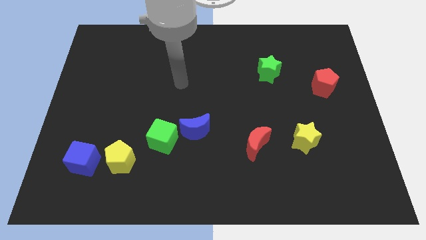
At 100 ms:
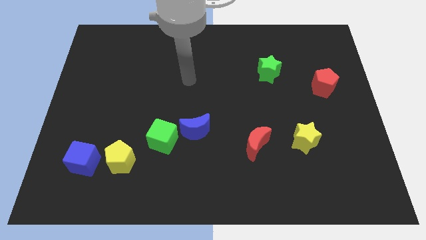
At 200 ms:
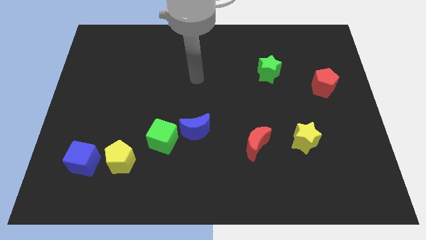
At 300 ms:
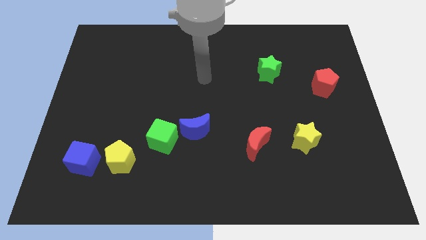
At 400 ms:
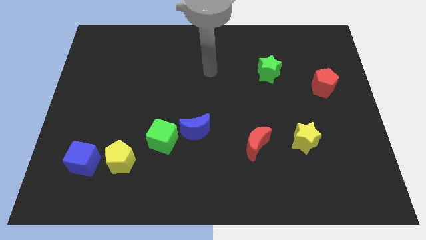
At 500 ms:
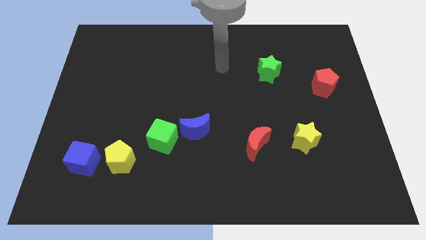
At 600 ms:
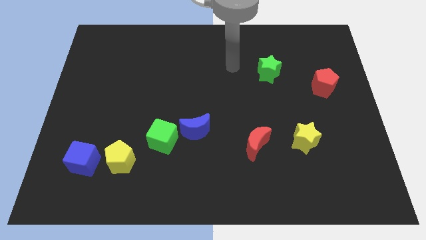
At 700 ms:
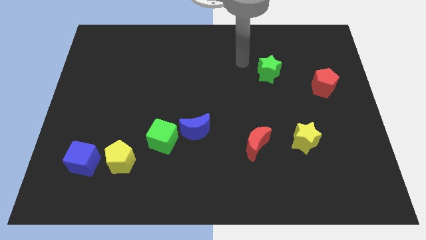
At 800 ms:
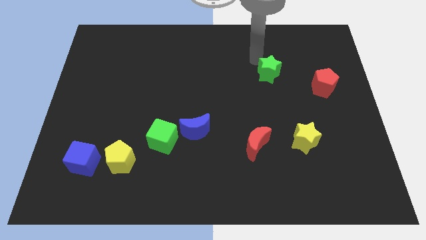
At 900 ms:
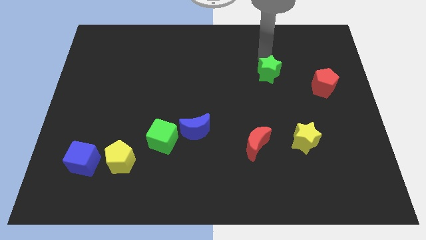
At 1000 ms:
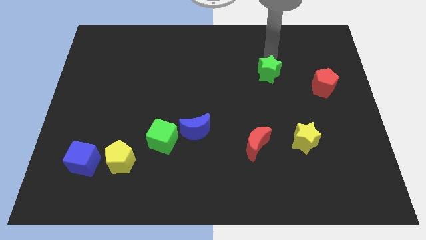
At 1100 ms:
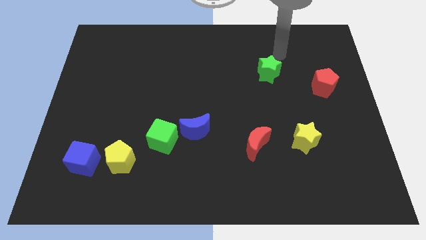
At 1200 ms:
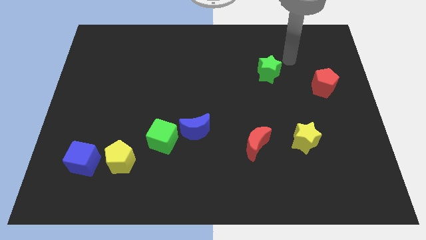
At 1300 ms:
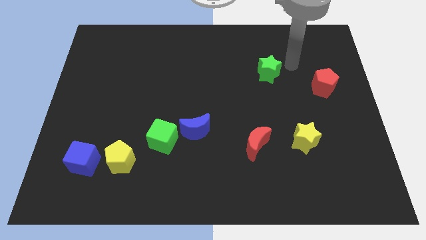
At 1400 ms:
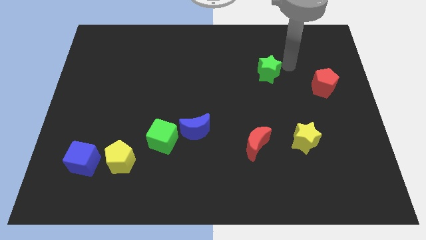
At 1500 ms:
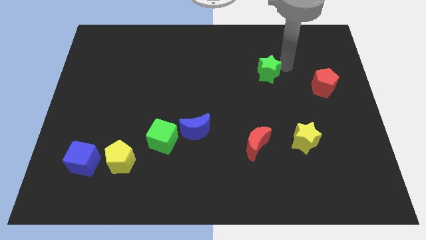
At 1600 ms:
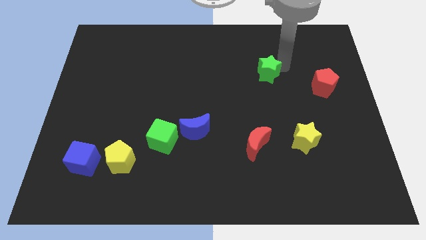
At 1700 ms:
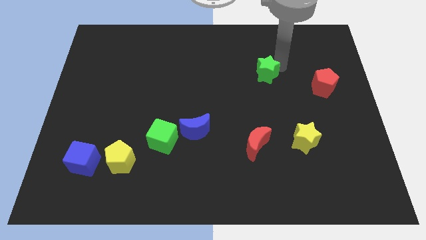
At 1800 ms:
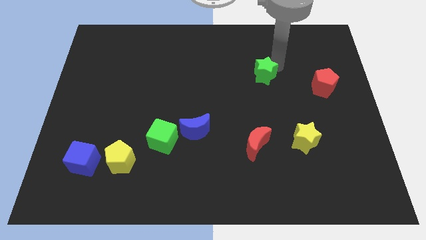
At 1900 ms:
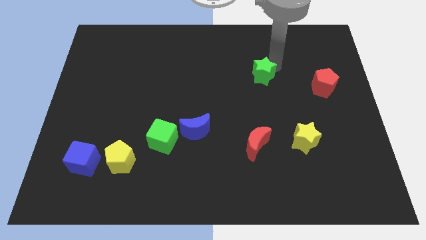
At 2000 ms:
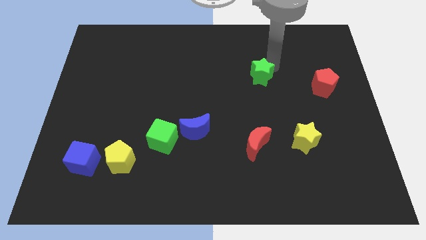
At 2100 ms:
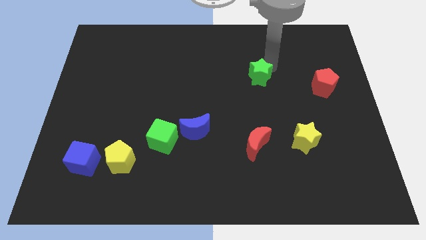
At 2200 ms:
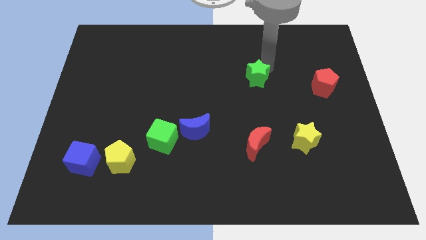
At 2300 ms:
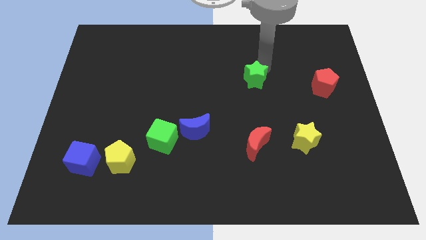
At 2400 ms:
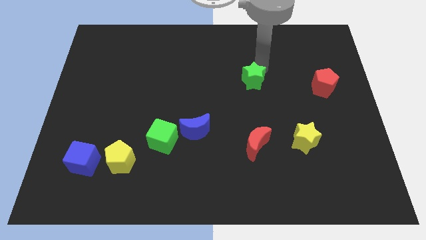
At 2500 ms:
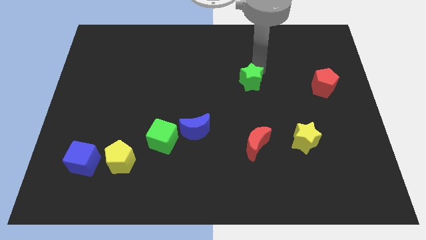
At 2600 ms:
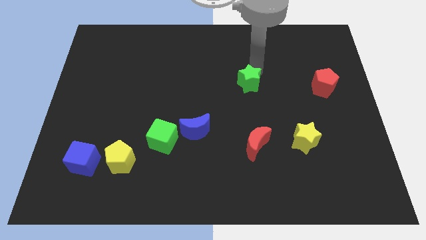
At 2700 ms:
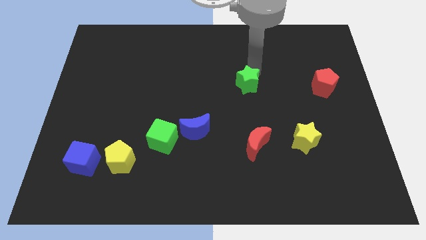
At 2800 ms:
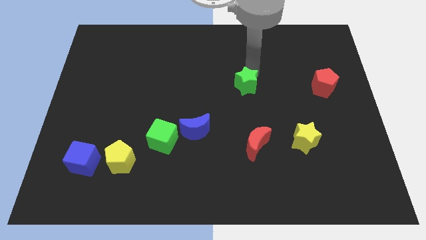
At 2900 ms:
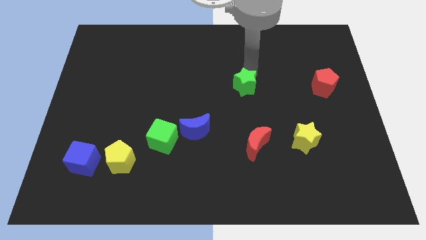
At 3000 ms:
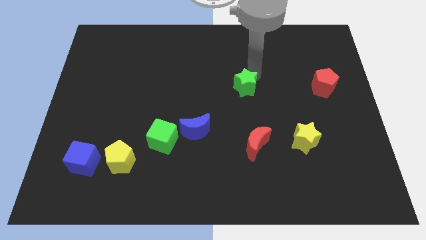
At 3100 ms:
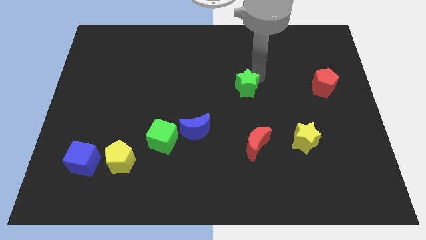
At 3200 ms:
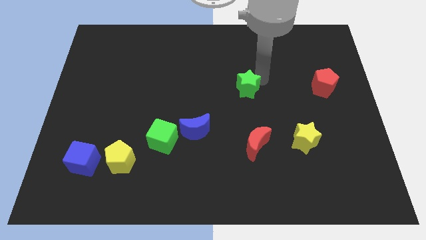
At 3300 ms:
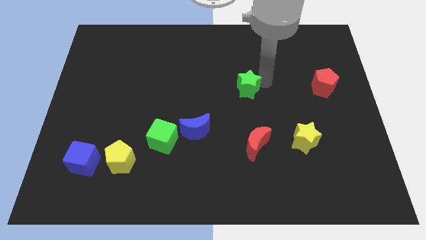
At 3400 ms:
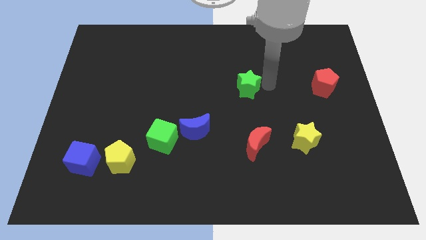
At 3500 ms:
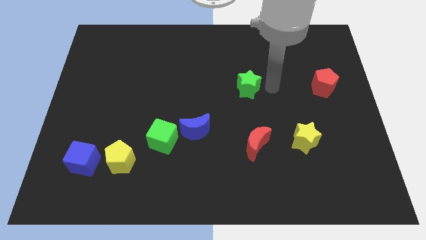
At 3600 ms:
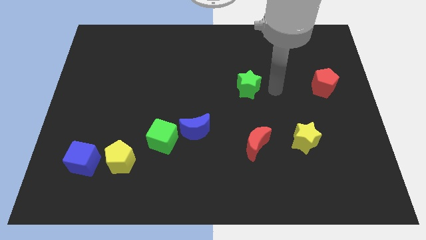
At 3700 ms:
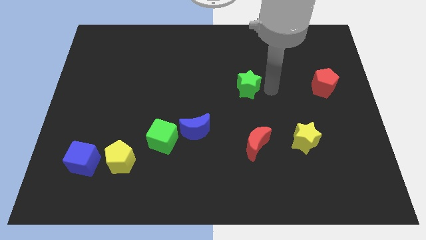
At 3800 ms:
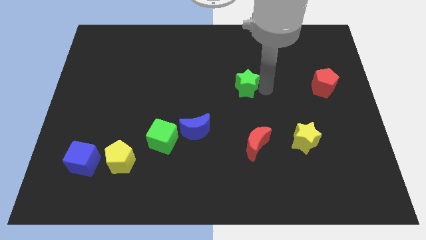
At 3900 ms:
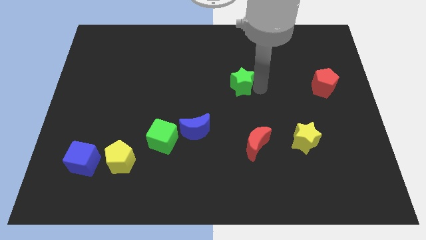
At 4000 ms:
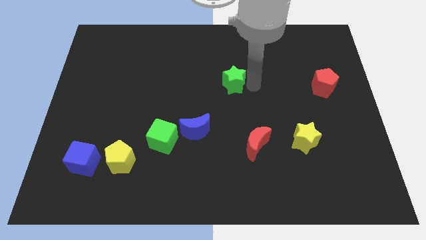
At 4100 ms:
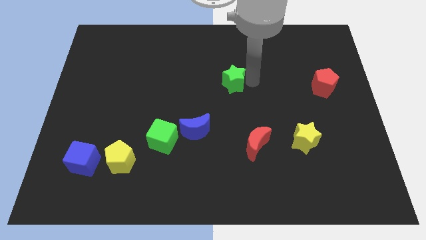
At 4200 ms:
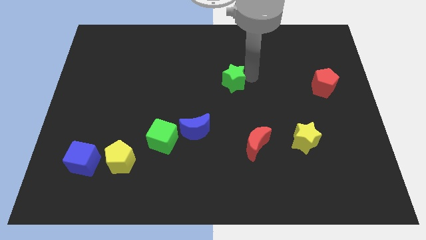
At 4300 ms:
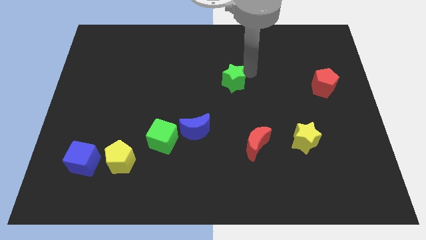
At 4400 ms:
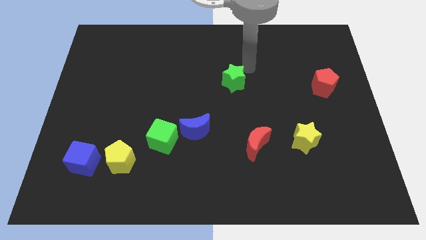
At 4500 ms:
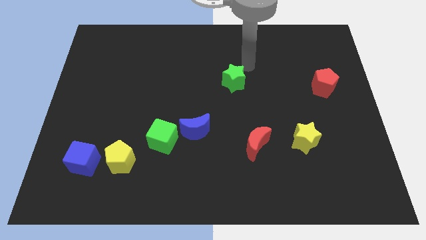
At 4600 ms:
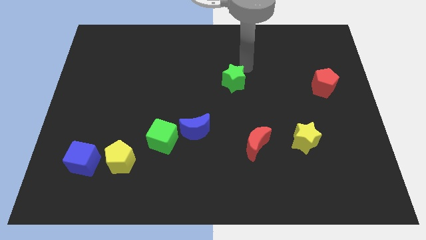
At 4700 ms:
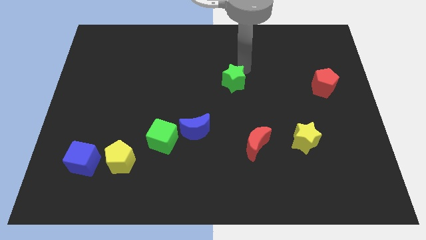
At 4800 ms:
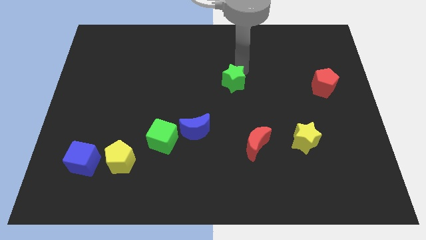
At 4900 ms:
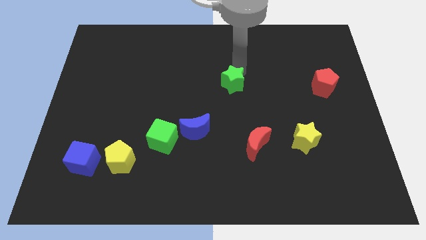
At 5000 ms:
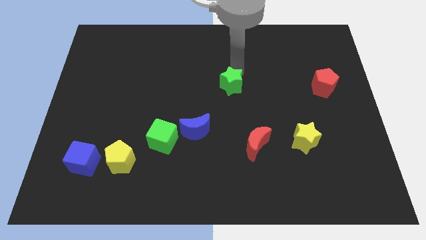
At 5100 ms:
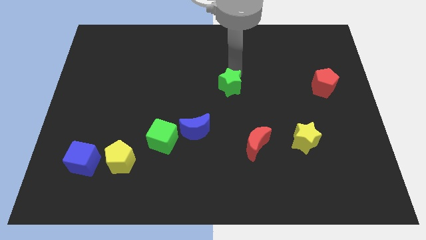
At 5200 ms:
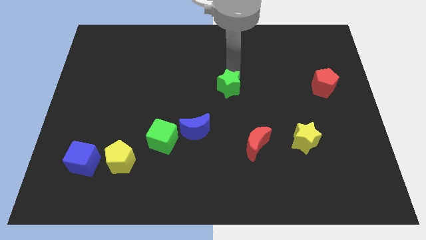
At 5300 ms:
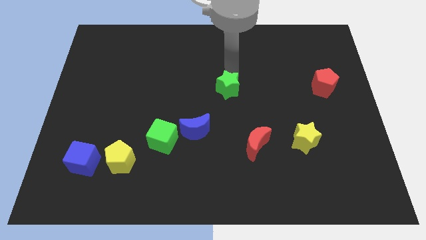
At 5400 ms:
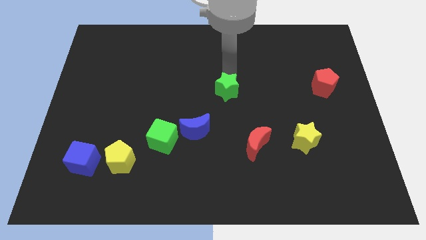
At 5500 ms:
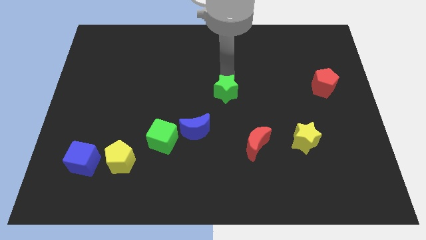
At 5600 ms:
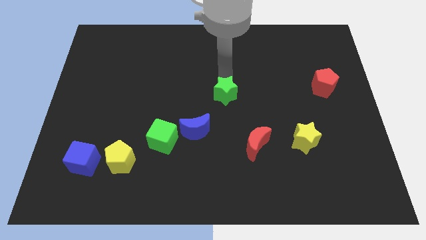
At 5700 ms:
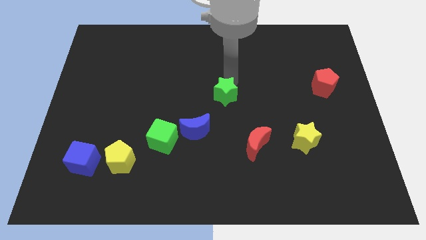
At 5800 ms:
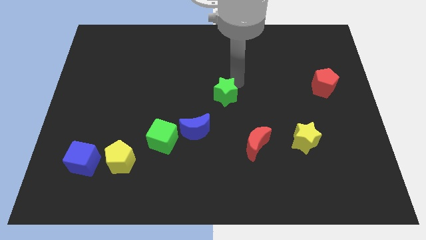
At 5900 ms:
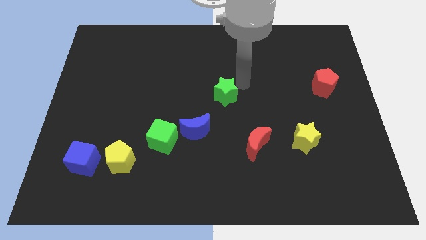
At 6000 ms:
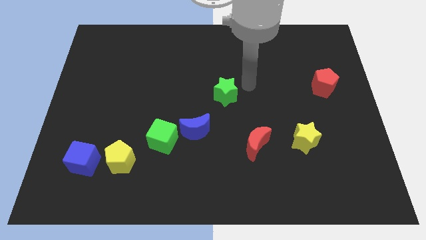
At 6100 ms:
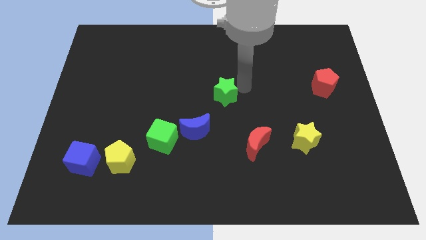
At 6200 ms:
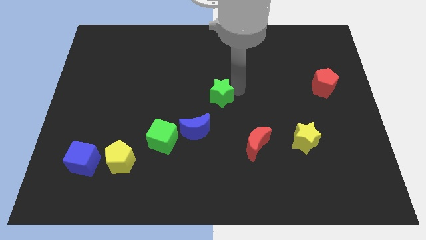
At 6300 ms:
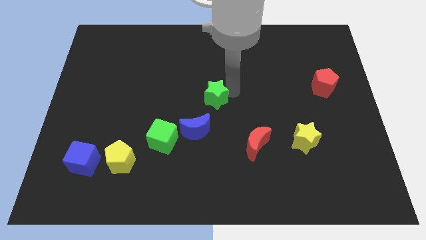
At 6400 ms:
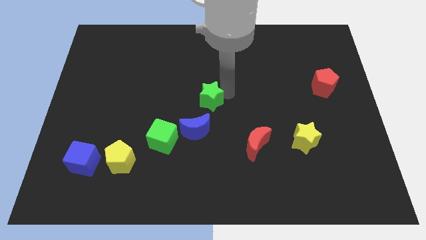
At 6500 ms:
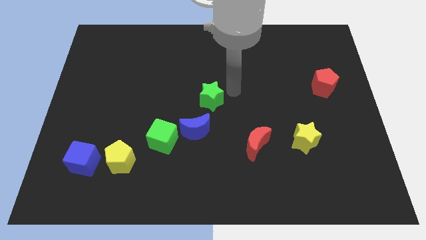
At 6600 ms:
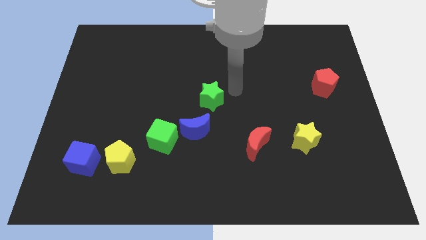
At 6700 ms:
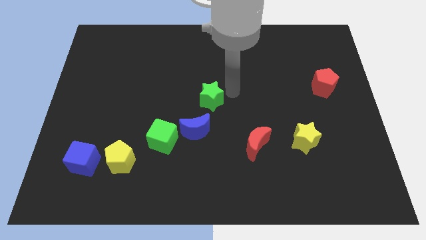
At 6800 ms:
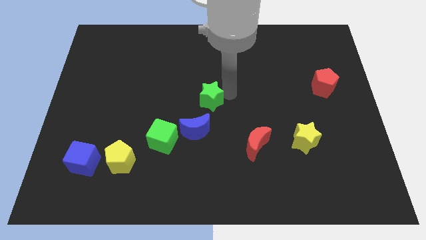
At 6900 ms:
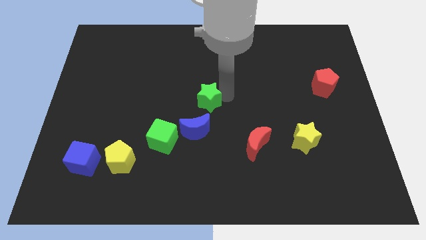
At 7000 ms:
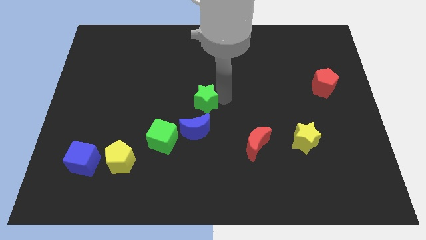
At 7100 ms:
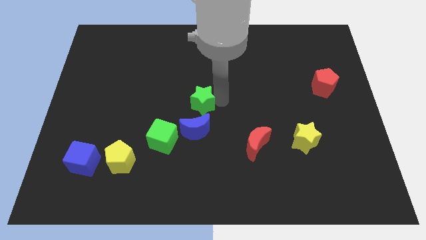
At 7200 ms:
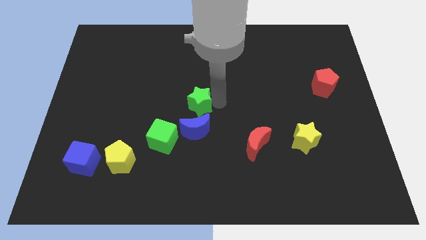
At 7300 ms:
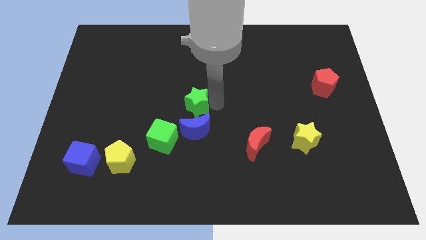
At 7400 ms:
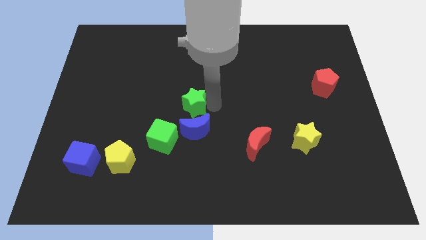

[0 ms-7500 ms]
put the green star to the top left side of the blue moon
